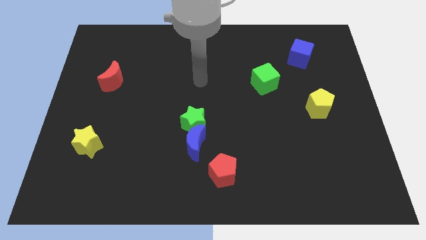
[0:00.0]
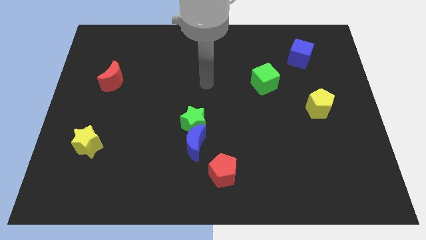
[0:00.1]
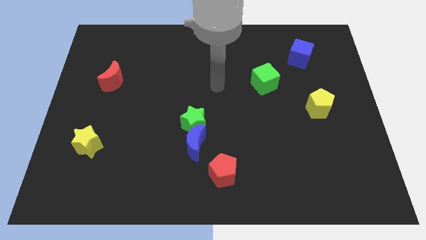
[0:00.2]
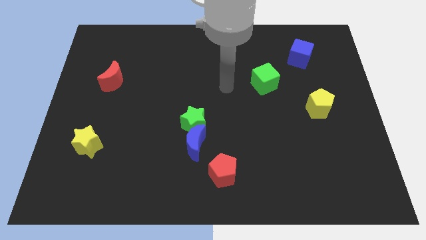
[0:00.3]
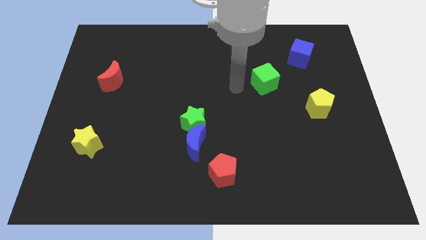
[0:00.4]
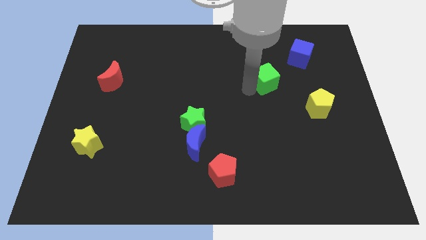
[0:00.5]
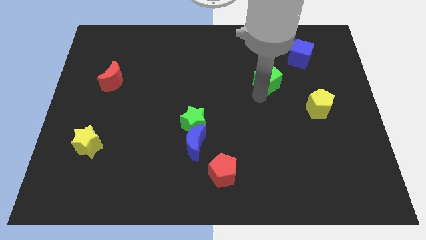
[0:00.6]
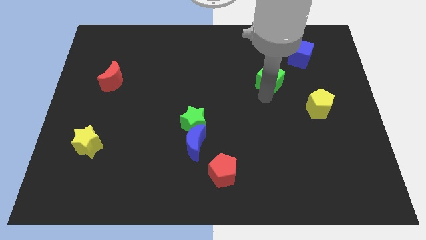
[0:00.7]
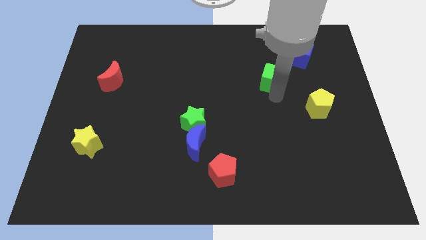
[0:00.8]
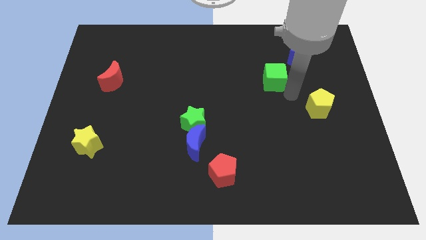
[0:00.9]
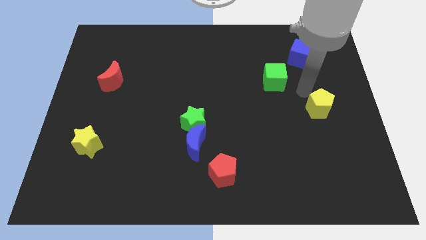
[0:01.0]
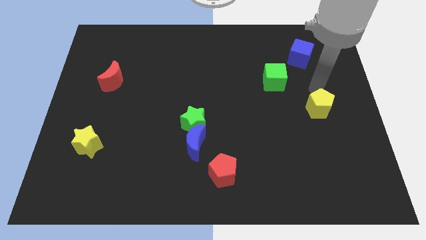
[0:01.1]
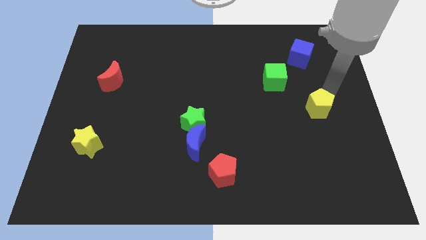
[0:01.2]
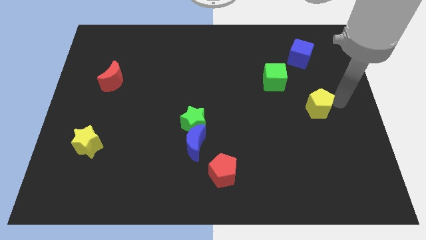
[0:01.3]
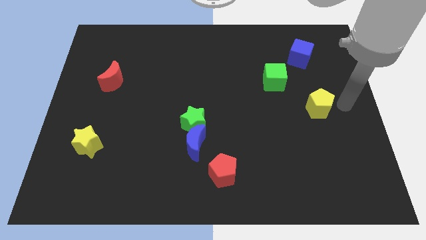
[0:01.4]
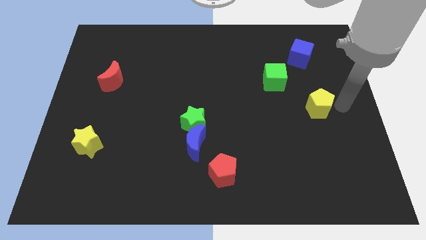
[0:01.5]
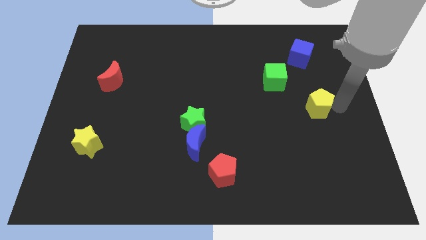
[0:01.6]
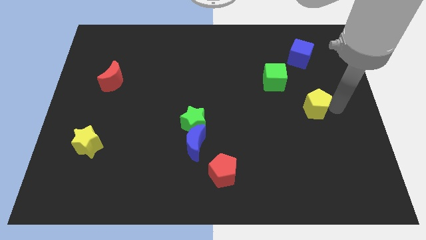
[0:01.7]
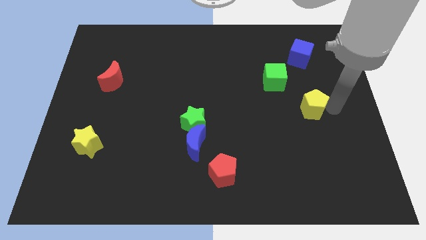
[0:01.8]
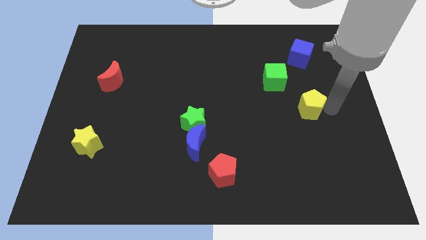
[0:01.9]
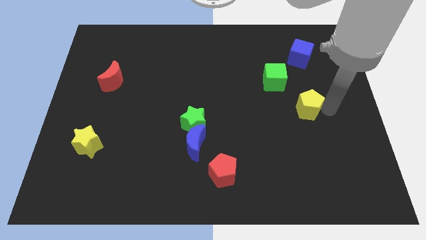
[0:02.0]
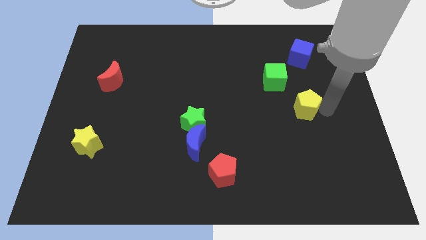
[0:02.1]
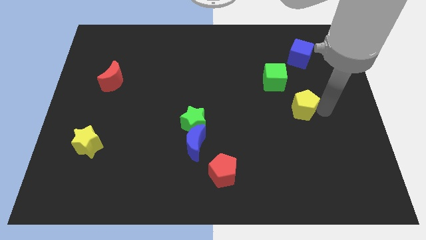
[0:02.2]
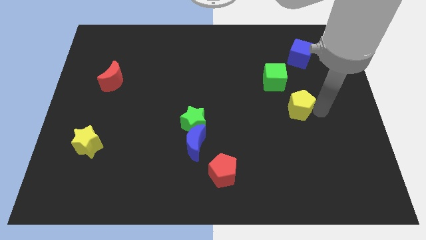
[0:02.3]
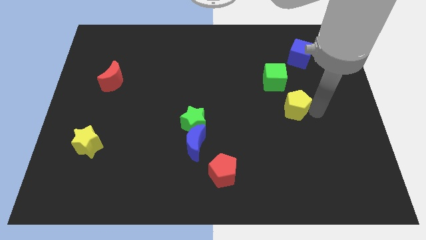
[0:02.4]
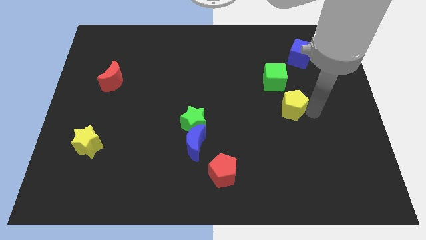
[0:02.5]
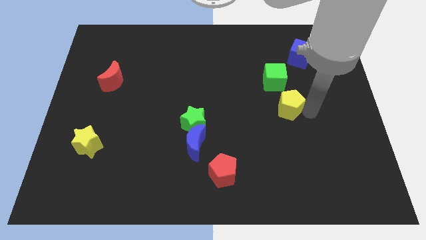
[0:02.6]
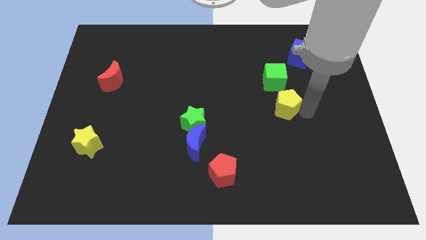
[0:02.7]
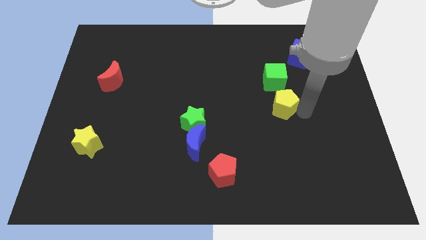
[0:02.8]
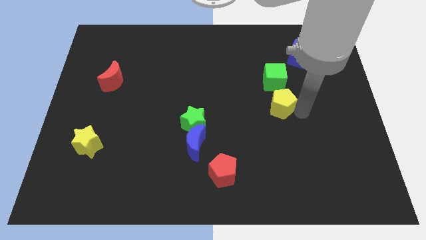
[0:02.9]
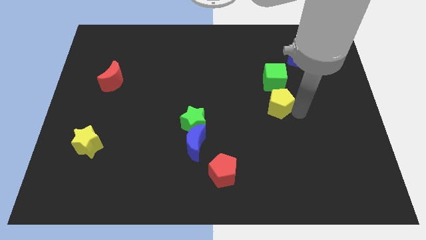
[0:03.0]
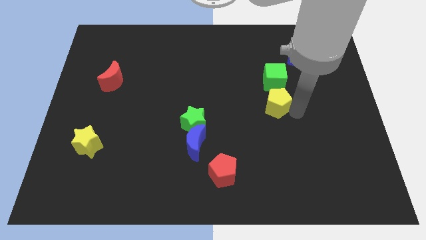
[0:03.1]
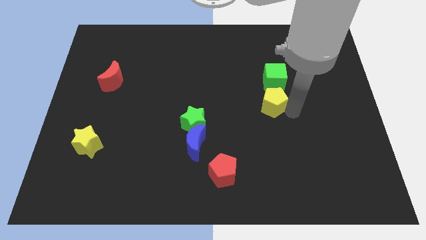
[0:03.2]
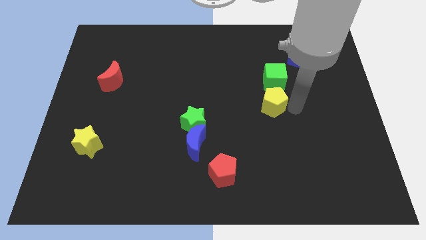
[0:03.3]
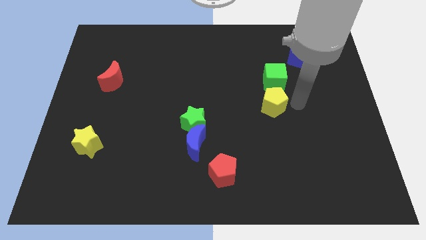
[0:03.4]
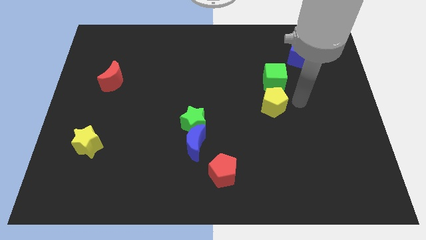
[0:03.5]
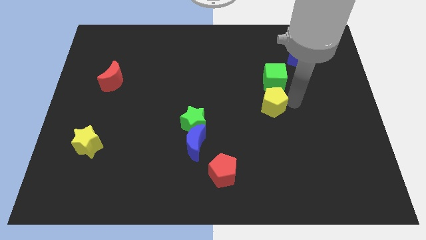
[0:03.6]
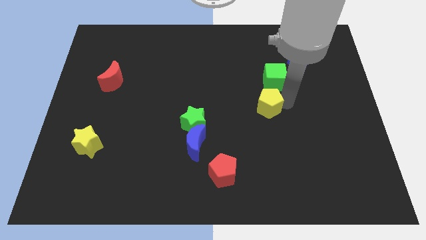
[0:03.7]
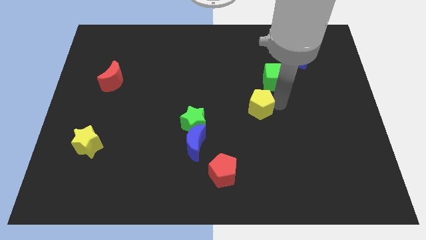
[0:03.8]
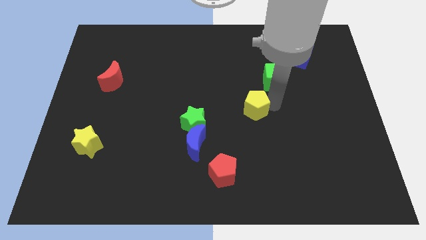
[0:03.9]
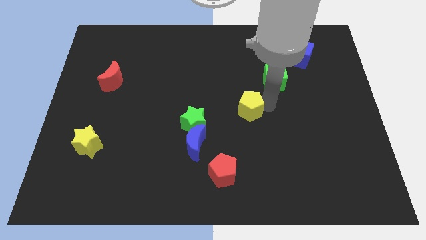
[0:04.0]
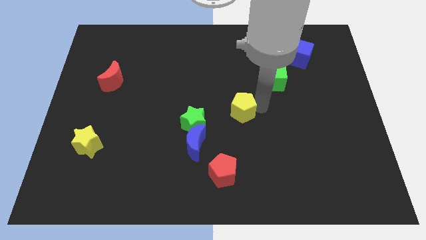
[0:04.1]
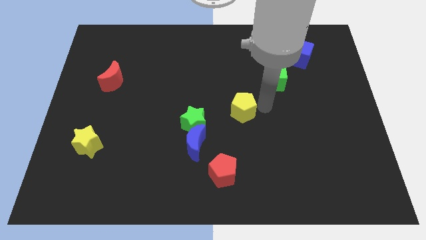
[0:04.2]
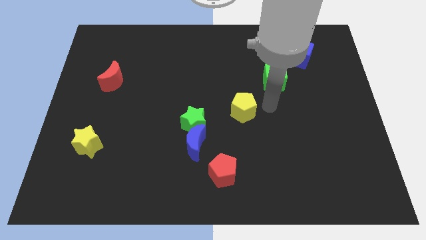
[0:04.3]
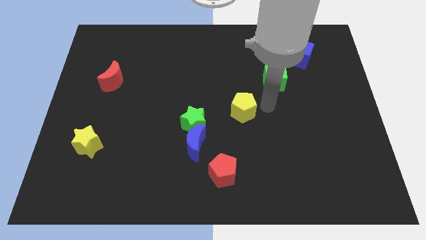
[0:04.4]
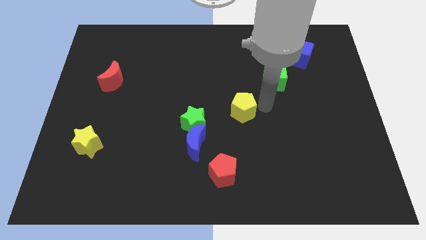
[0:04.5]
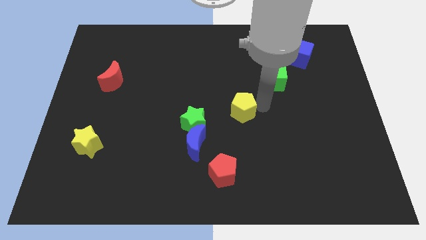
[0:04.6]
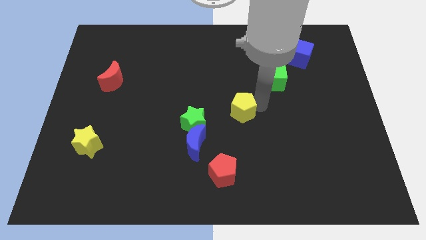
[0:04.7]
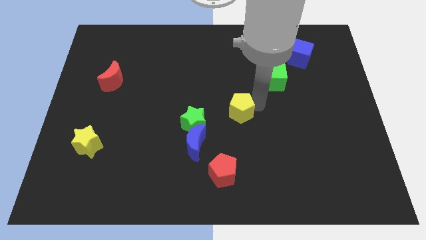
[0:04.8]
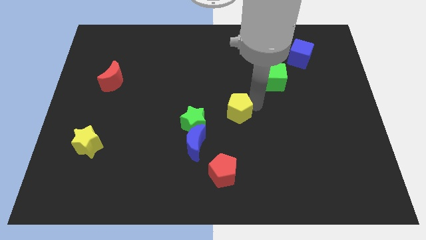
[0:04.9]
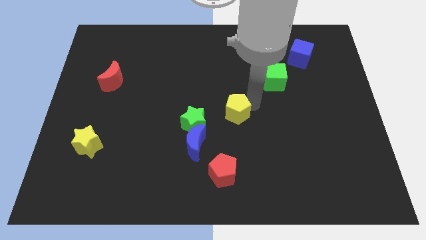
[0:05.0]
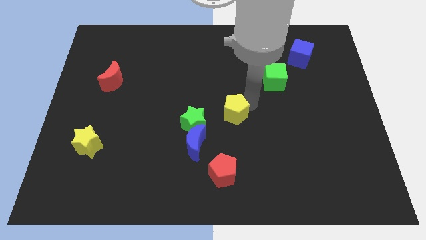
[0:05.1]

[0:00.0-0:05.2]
push the yellow pentagon left

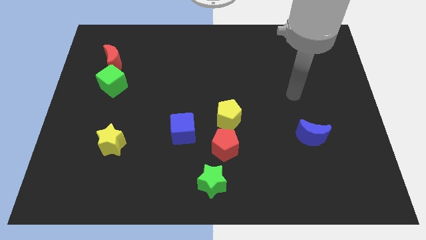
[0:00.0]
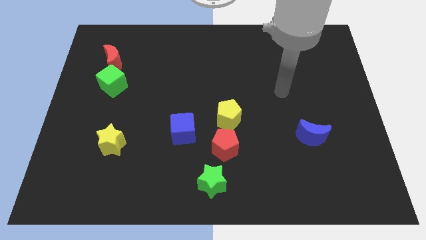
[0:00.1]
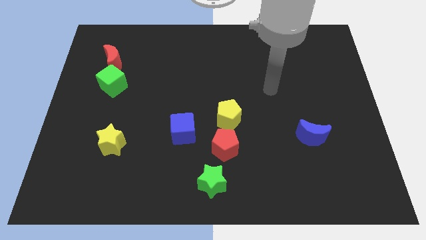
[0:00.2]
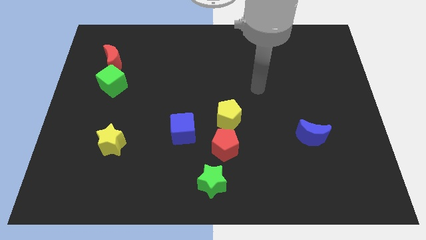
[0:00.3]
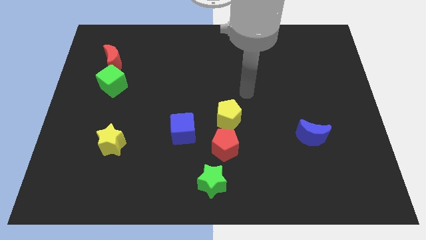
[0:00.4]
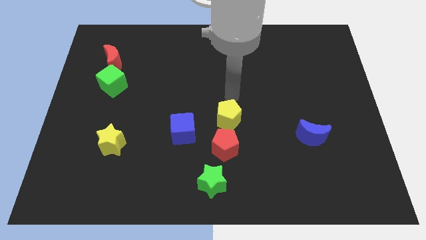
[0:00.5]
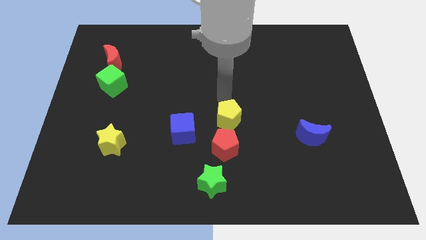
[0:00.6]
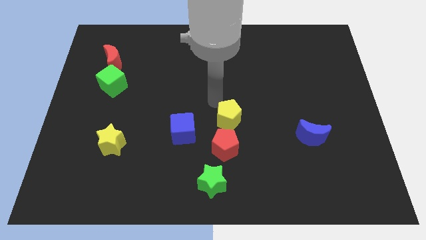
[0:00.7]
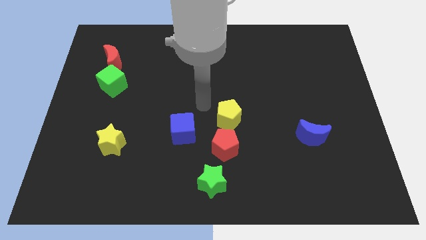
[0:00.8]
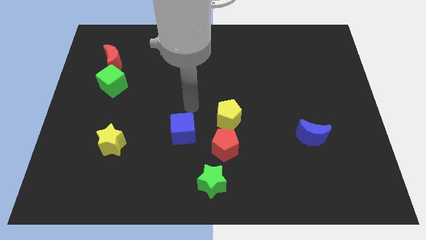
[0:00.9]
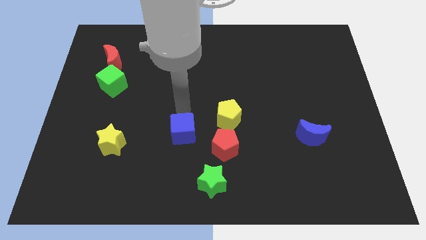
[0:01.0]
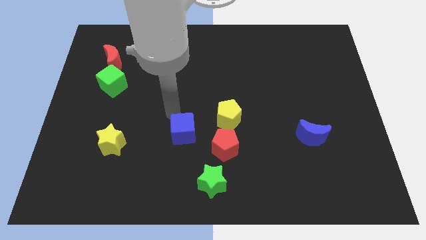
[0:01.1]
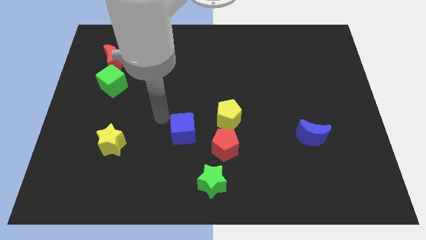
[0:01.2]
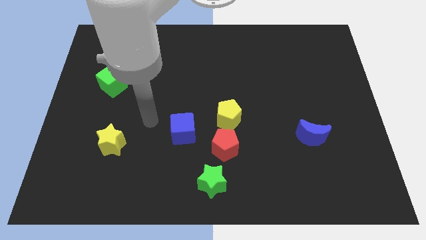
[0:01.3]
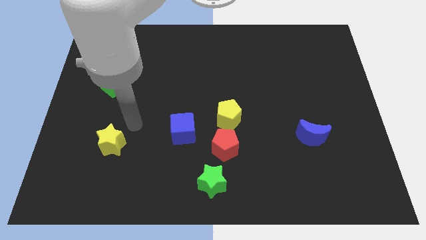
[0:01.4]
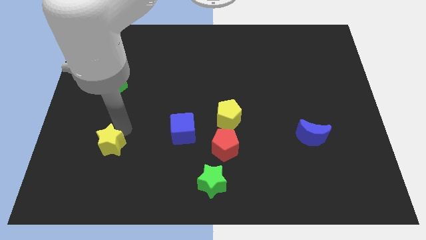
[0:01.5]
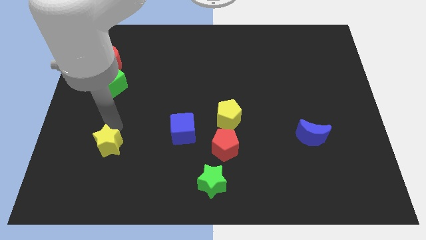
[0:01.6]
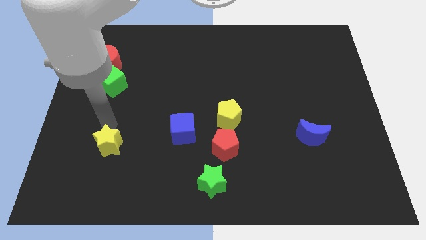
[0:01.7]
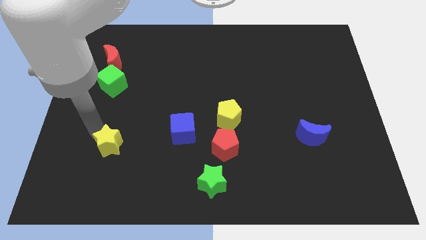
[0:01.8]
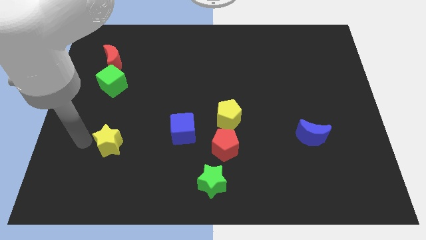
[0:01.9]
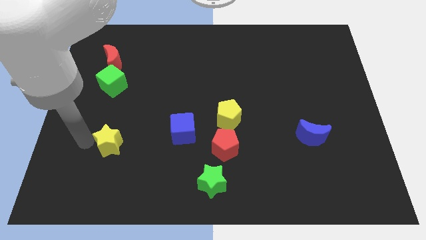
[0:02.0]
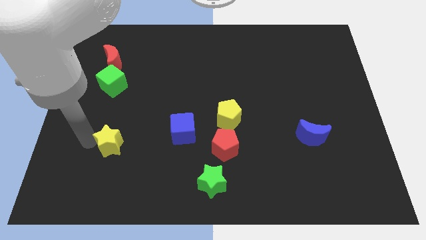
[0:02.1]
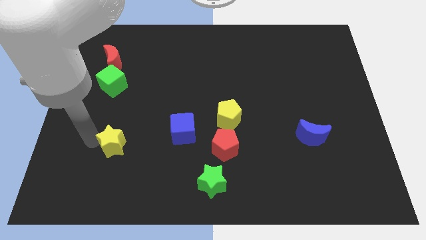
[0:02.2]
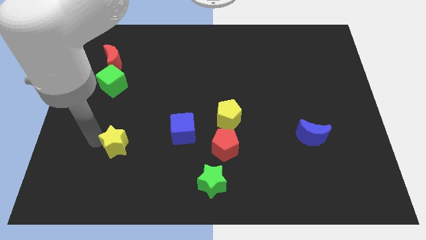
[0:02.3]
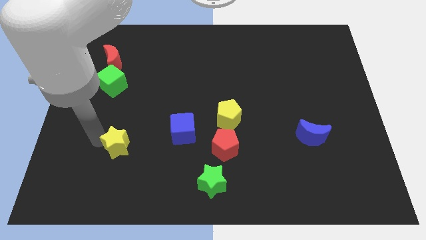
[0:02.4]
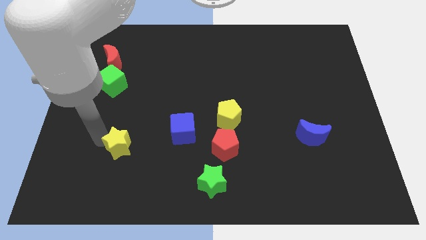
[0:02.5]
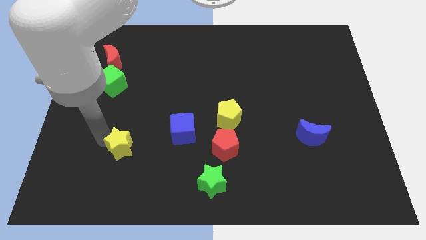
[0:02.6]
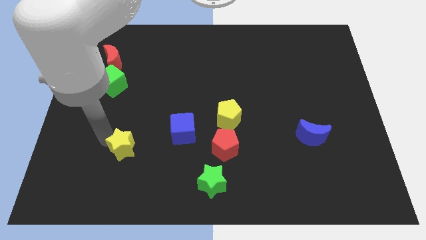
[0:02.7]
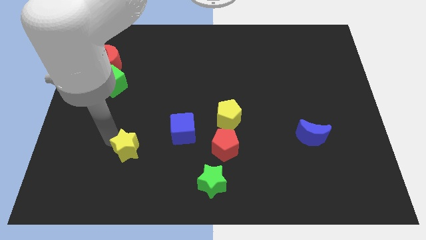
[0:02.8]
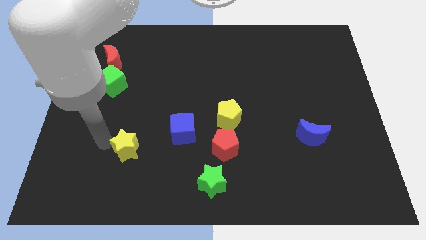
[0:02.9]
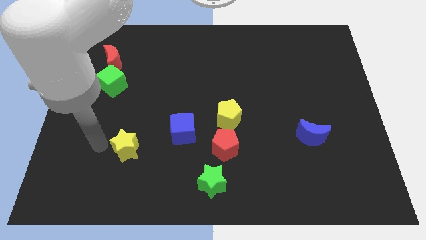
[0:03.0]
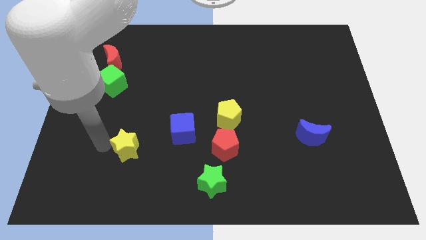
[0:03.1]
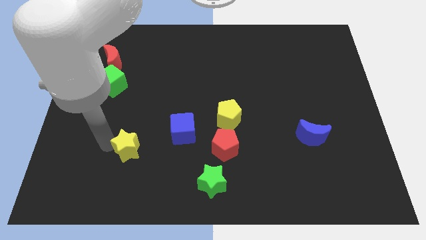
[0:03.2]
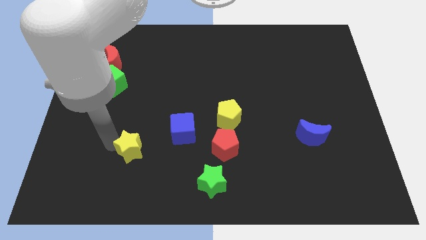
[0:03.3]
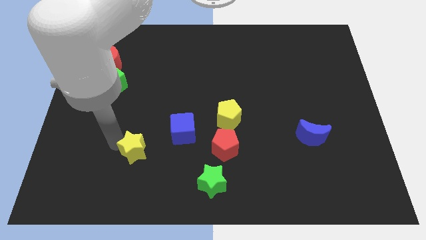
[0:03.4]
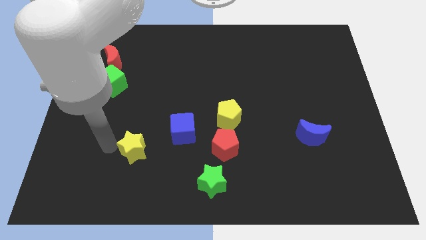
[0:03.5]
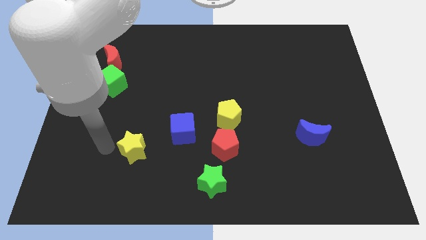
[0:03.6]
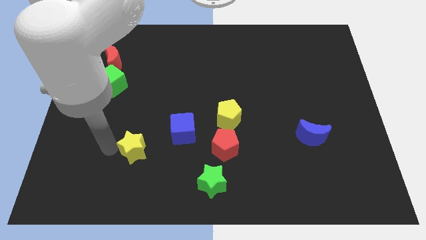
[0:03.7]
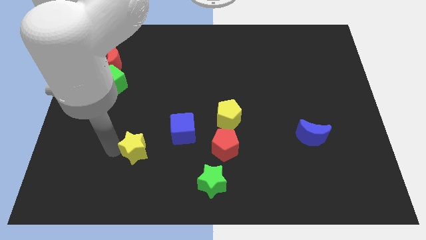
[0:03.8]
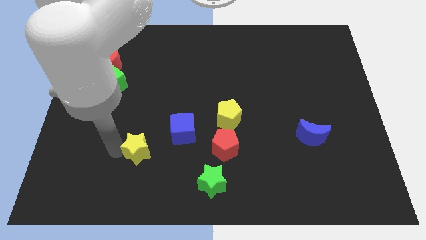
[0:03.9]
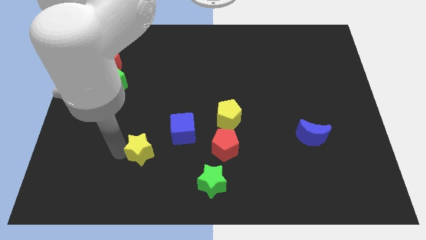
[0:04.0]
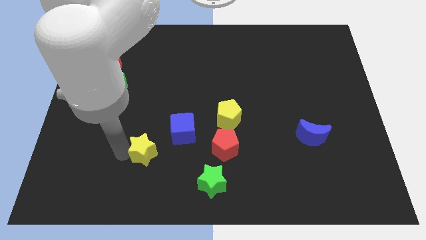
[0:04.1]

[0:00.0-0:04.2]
slide the yellow star right slightly
